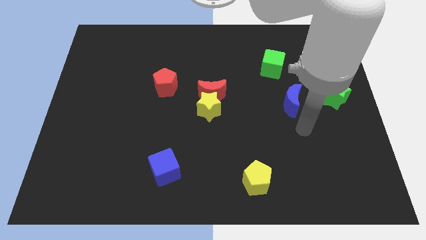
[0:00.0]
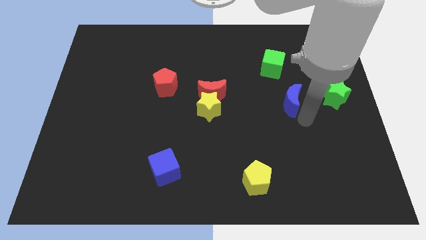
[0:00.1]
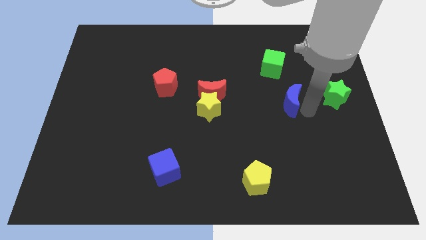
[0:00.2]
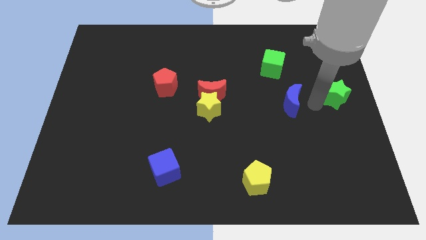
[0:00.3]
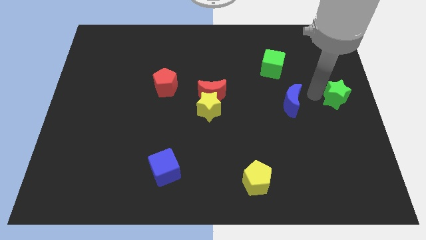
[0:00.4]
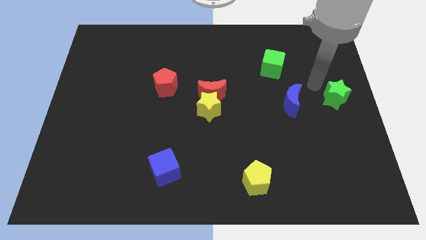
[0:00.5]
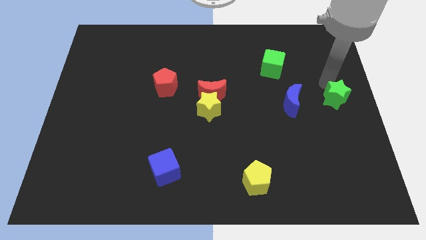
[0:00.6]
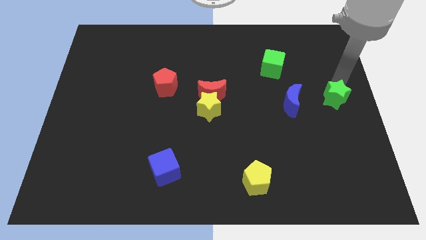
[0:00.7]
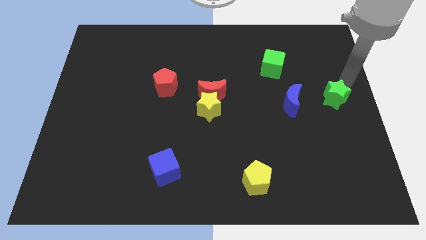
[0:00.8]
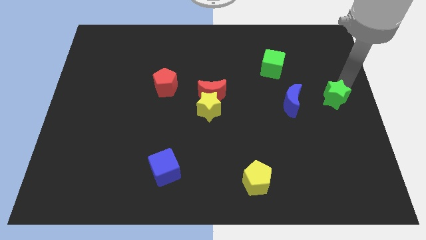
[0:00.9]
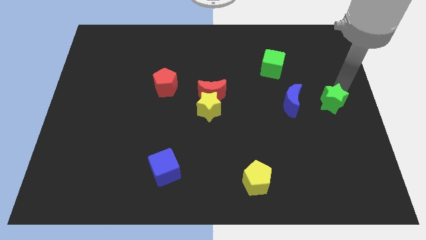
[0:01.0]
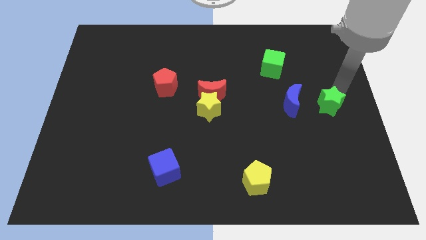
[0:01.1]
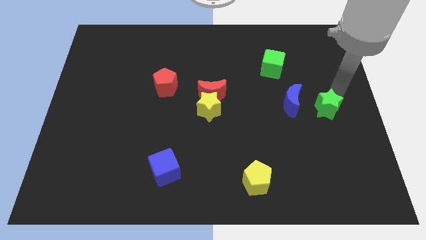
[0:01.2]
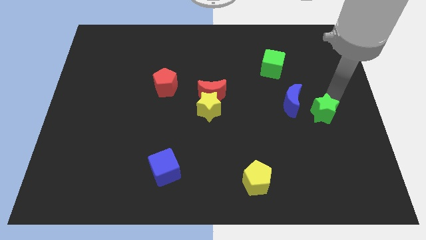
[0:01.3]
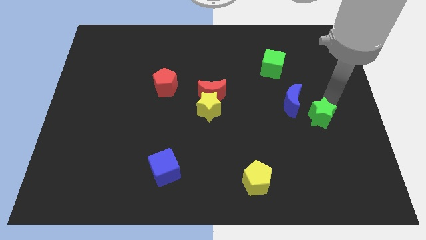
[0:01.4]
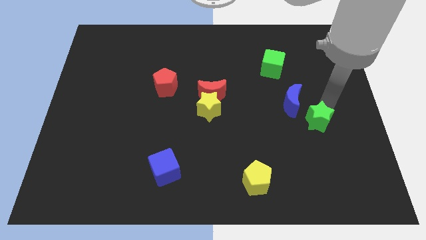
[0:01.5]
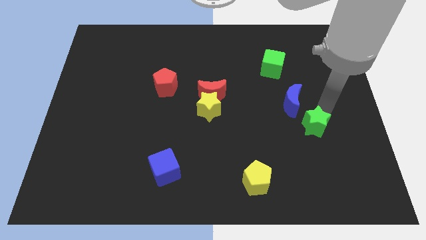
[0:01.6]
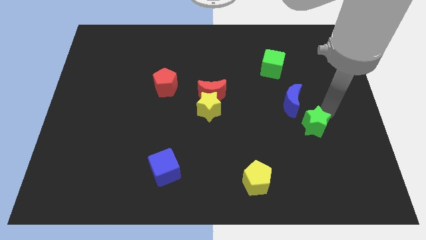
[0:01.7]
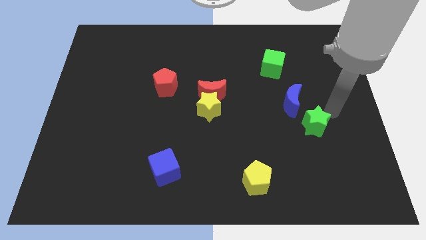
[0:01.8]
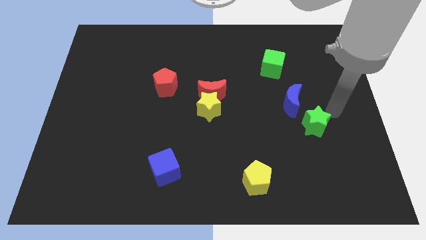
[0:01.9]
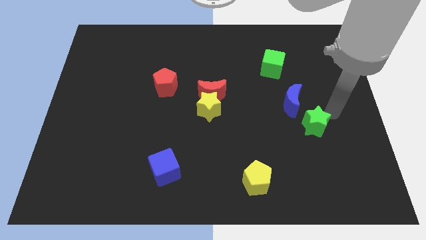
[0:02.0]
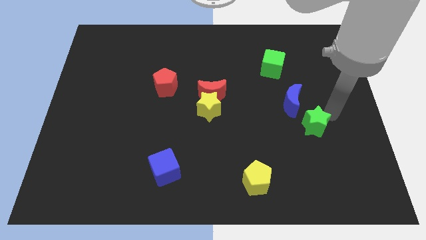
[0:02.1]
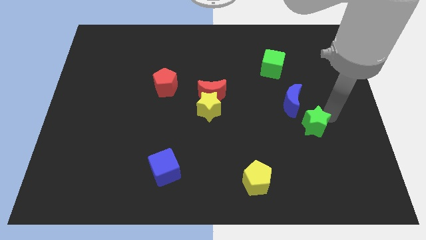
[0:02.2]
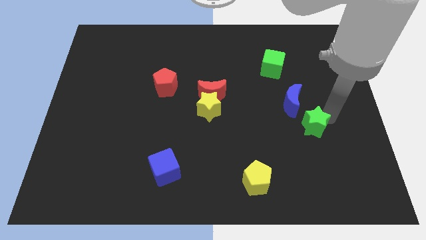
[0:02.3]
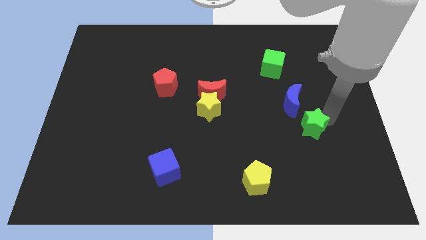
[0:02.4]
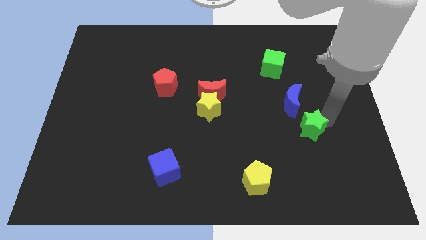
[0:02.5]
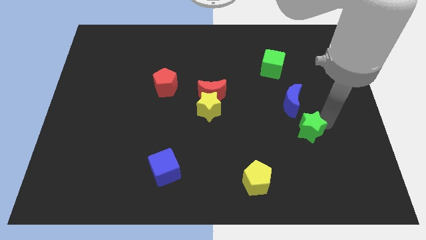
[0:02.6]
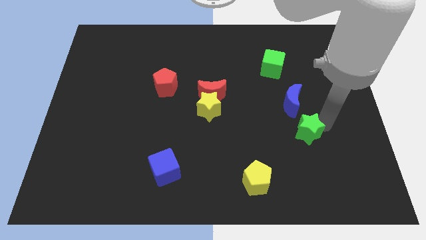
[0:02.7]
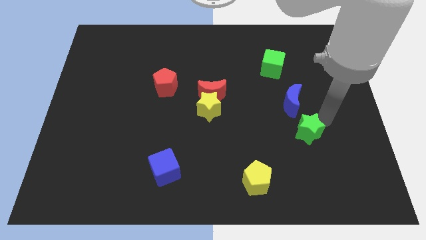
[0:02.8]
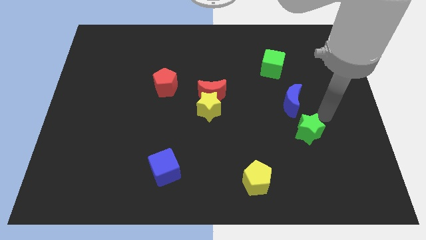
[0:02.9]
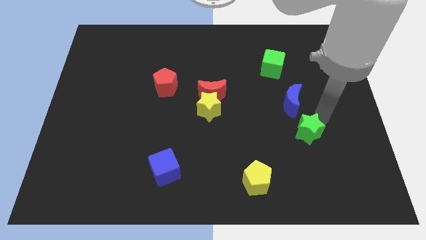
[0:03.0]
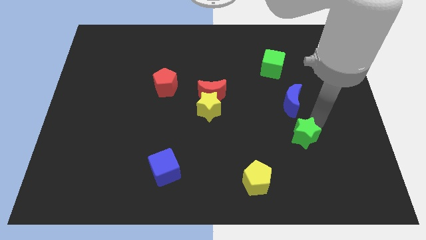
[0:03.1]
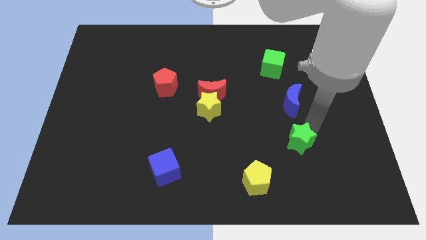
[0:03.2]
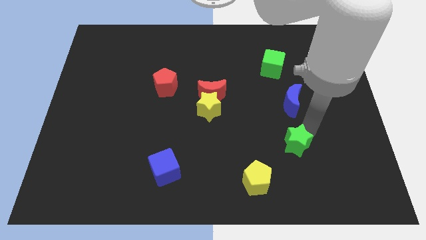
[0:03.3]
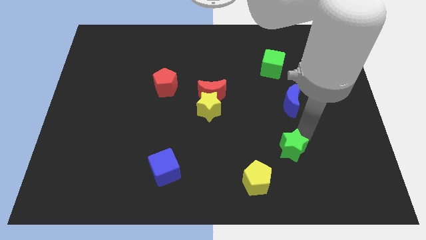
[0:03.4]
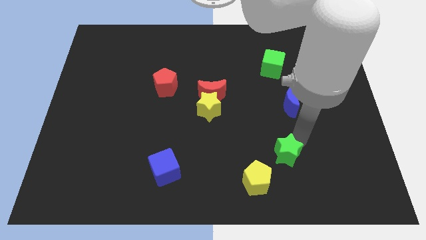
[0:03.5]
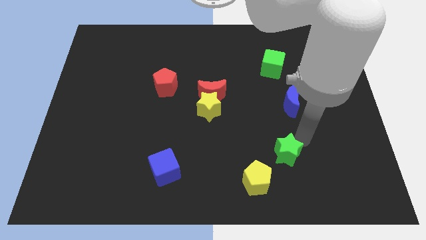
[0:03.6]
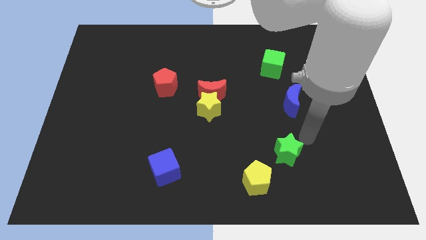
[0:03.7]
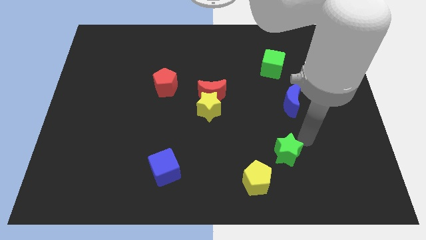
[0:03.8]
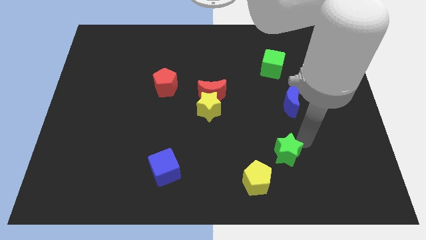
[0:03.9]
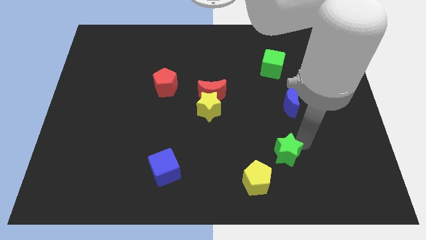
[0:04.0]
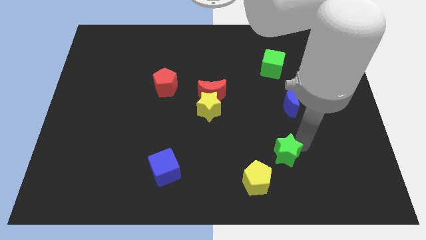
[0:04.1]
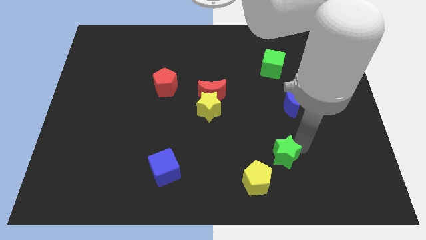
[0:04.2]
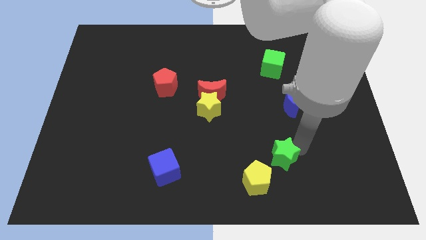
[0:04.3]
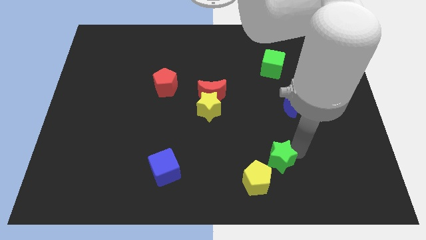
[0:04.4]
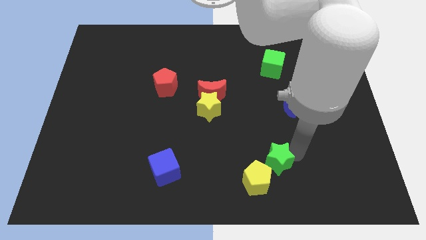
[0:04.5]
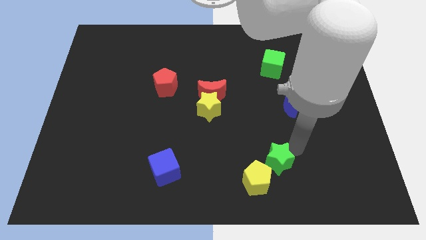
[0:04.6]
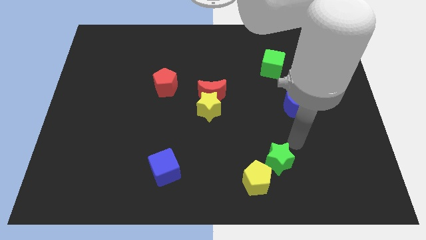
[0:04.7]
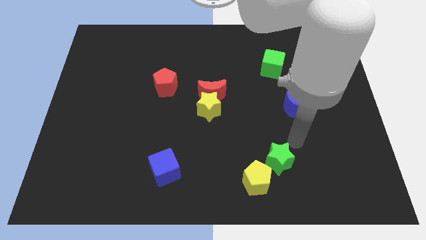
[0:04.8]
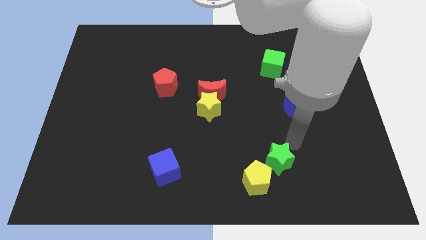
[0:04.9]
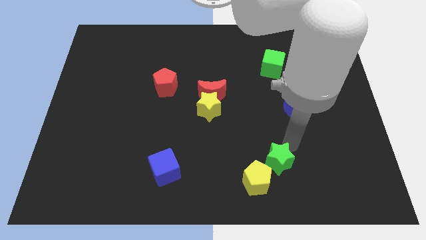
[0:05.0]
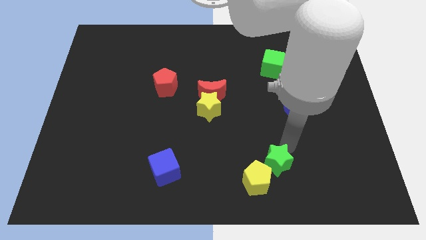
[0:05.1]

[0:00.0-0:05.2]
slide the green star close to the yellow pentagon
